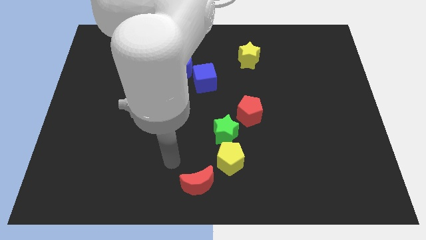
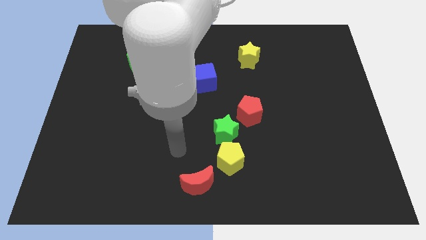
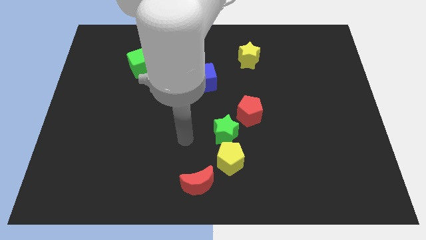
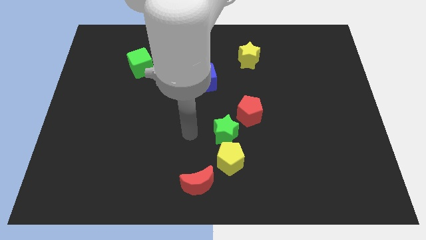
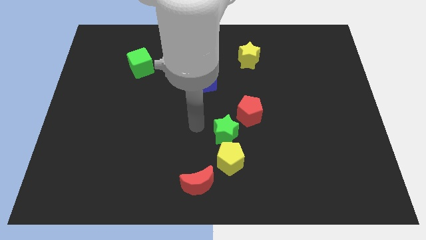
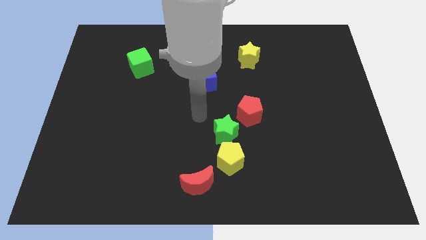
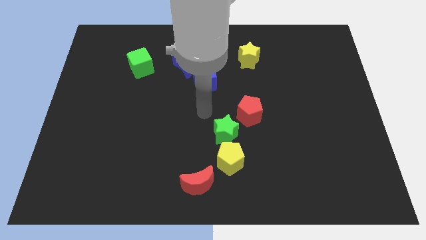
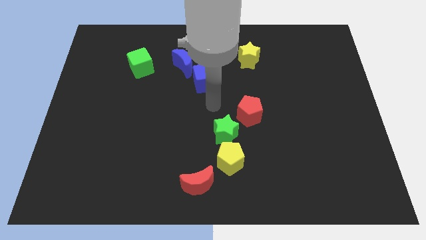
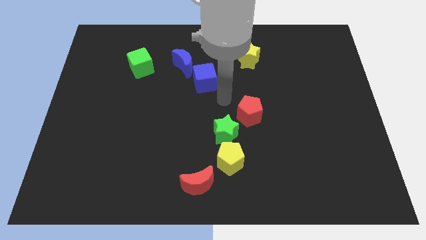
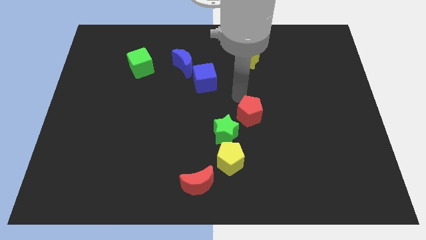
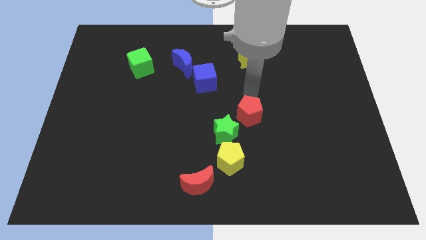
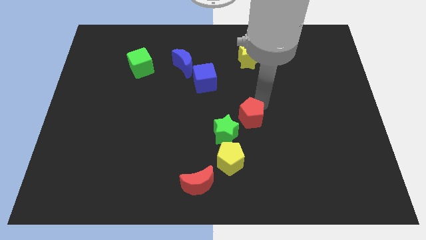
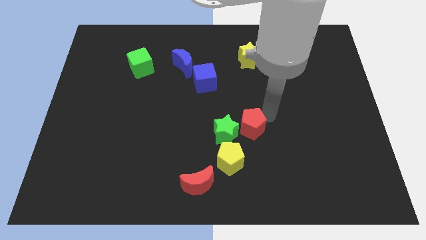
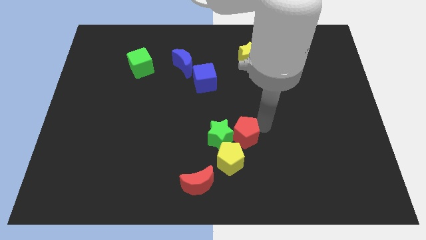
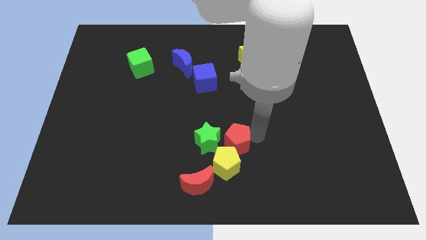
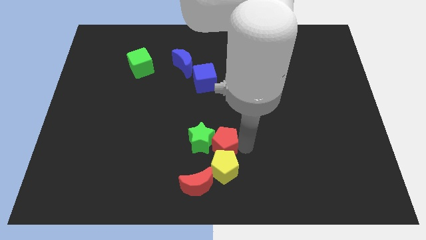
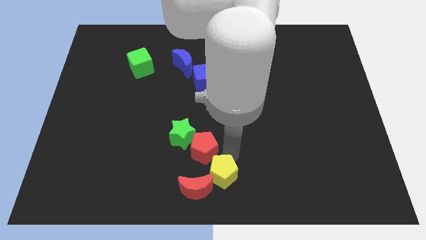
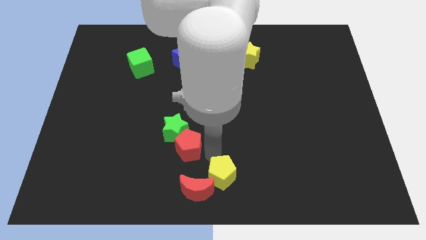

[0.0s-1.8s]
separate the green star from the yellow pentagon and red pentagon

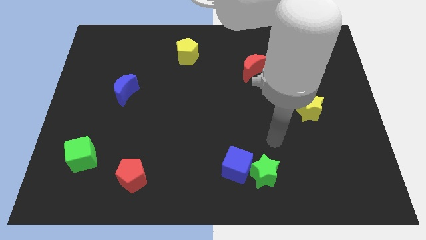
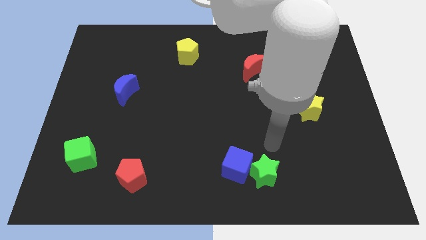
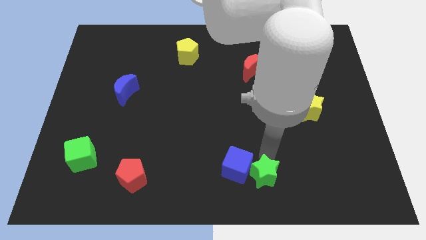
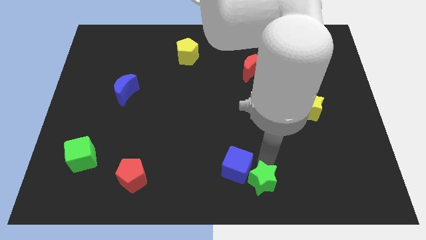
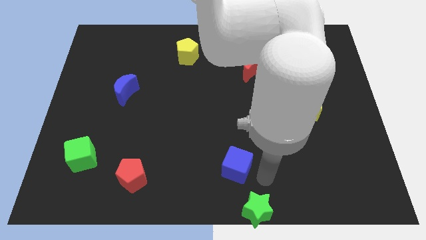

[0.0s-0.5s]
move the blue cube away from the green star

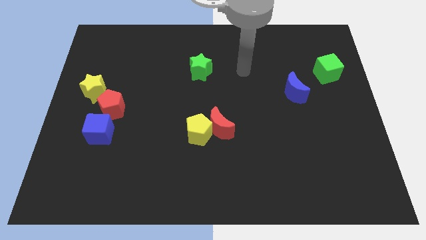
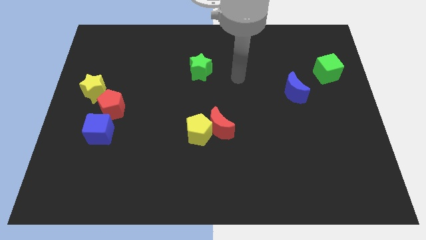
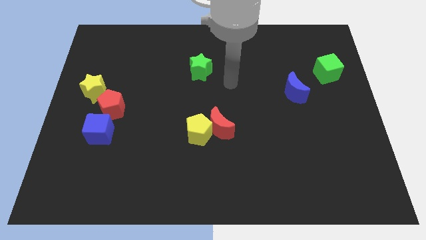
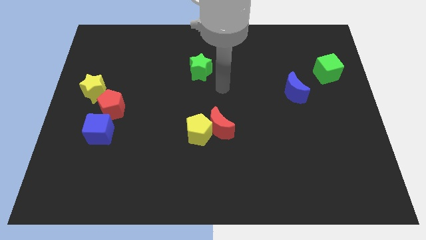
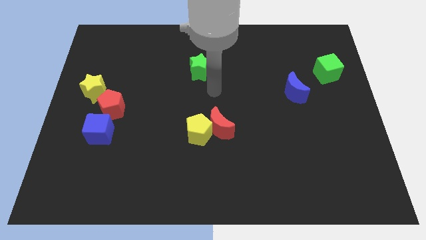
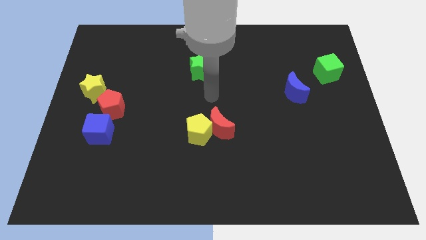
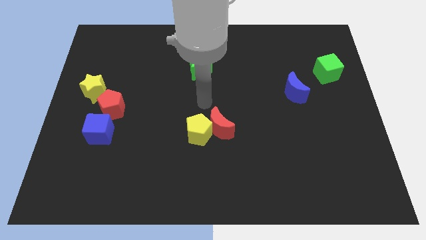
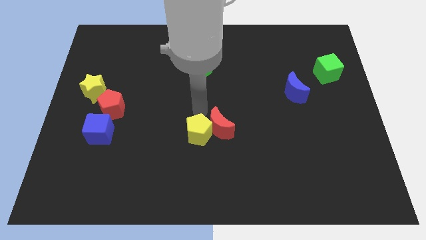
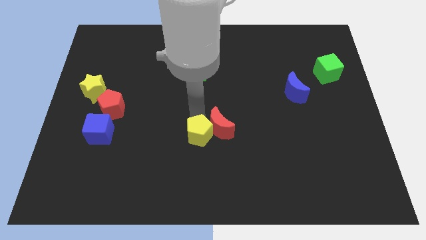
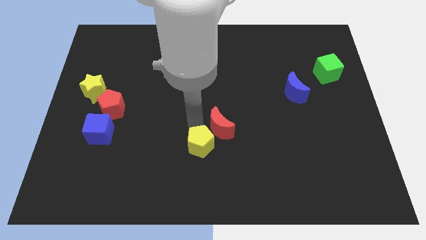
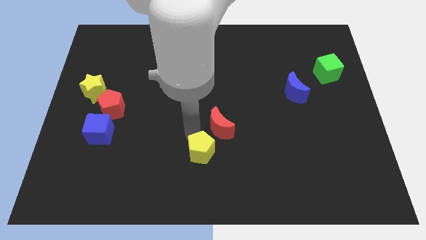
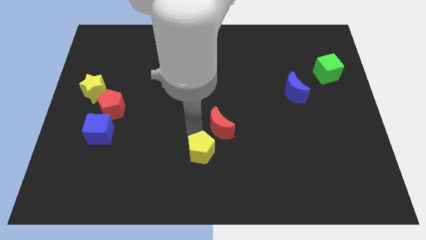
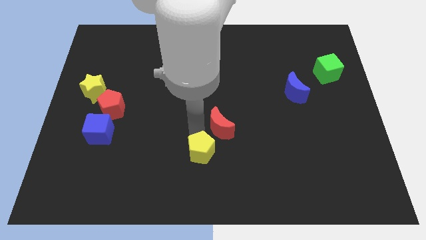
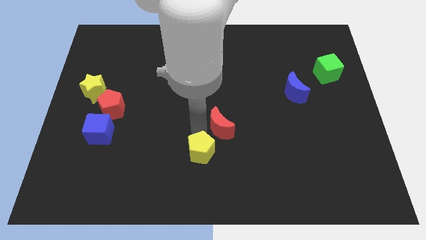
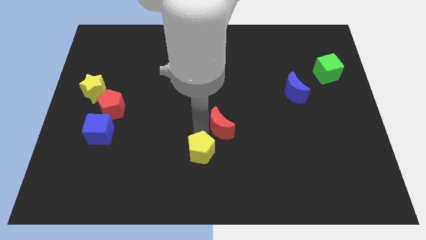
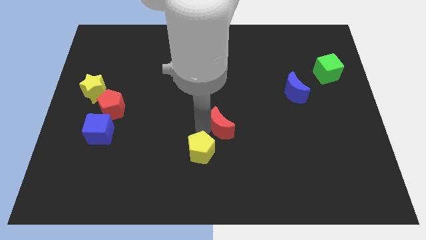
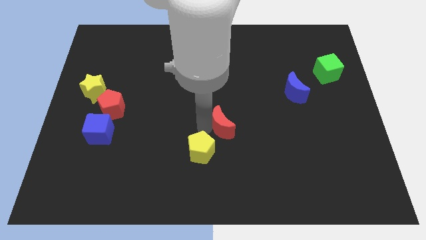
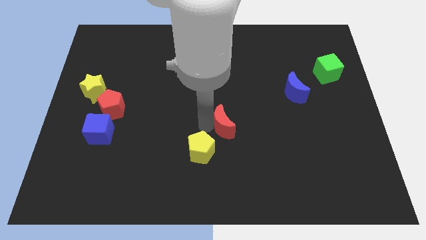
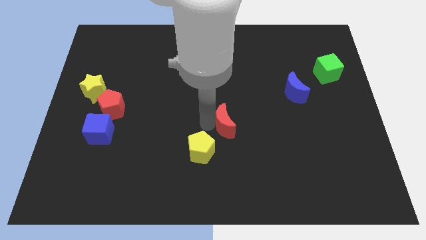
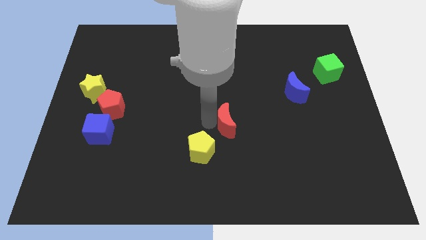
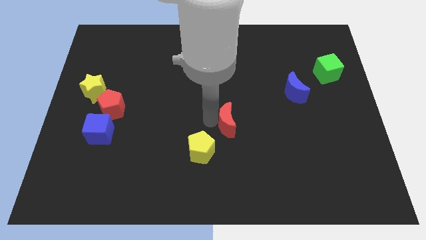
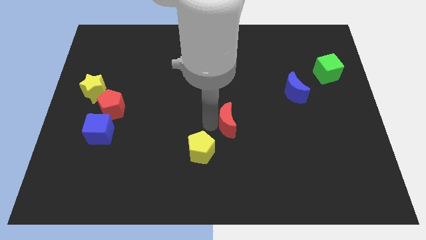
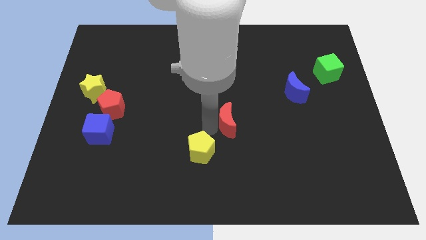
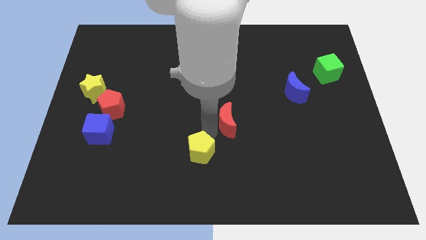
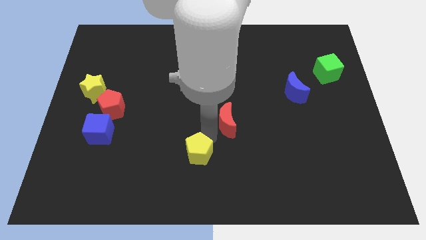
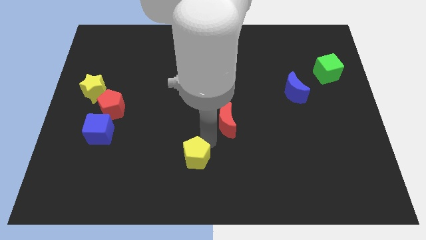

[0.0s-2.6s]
move the red moon away from the yellow pentagon

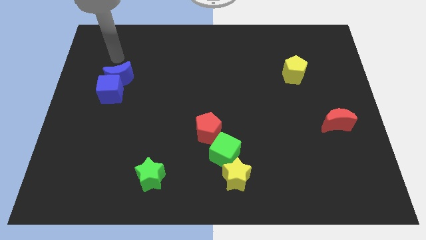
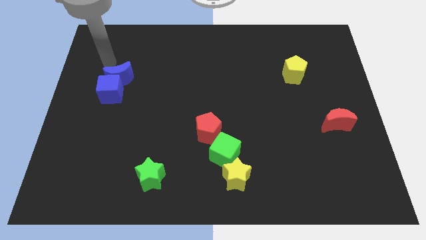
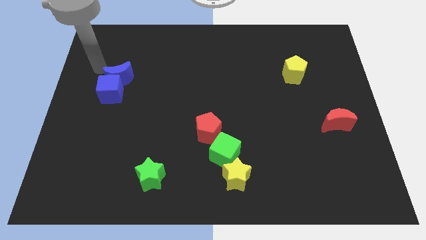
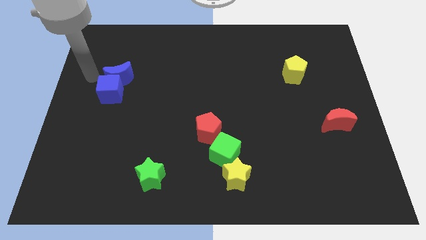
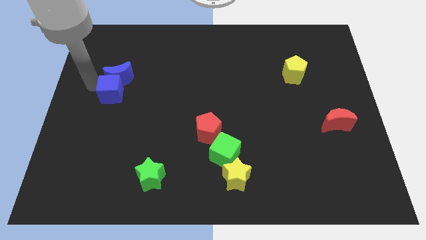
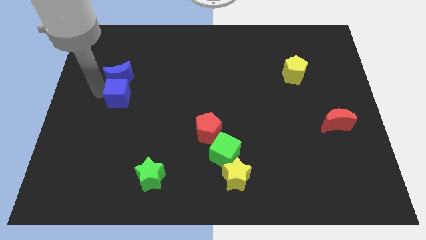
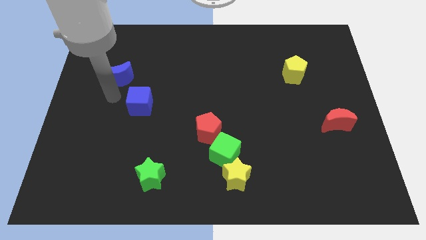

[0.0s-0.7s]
separate the blue moon from the blue cube

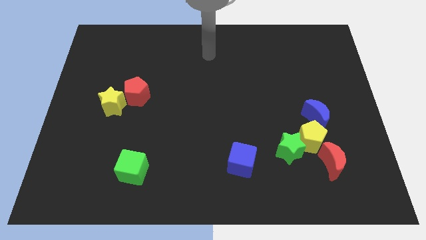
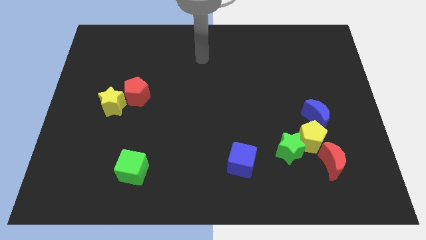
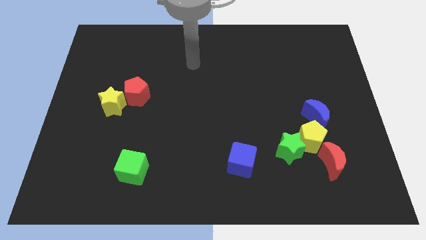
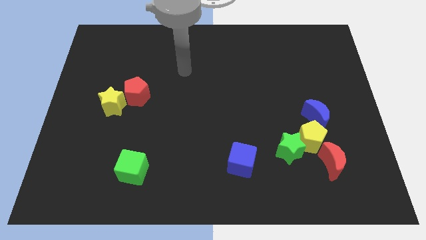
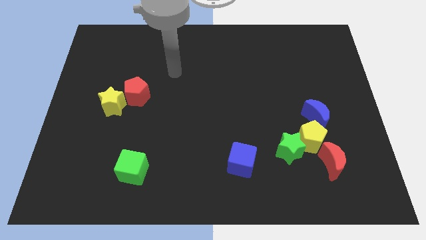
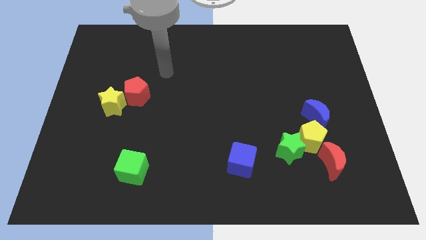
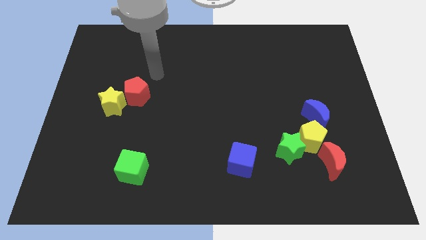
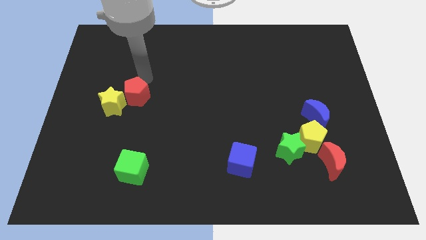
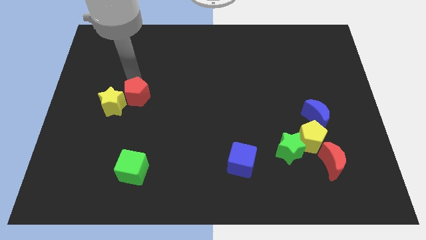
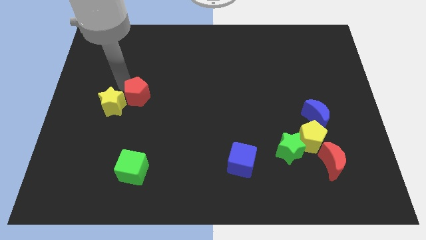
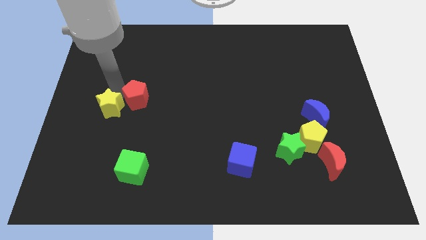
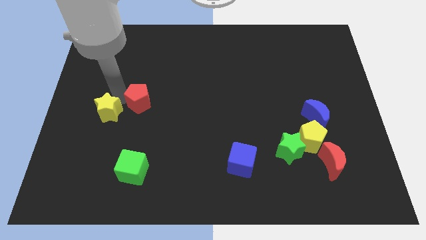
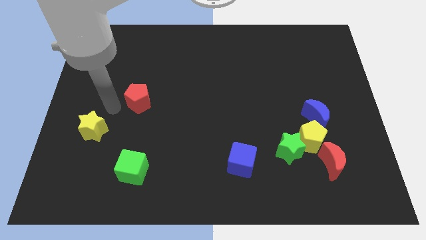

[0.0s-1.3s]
separate the red pentagon from the yellow star

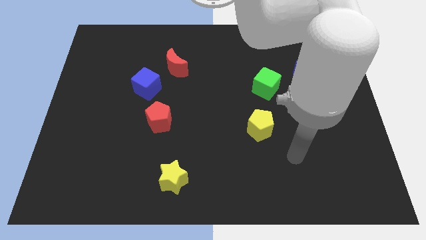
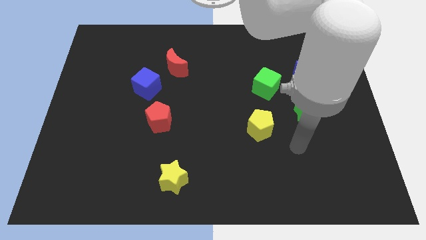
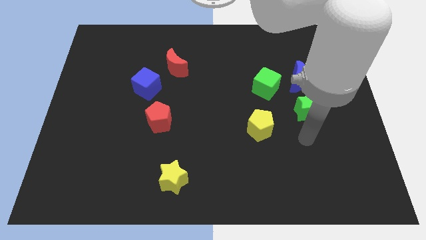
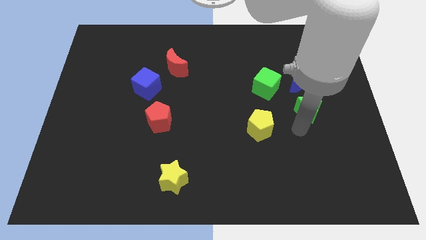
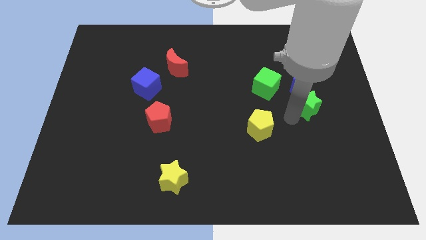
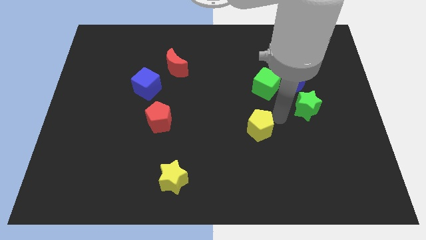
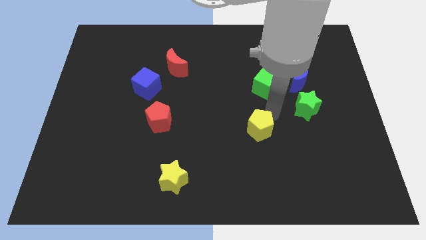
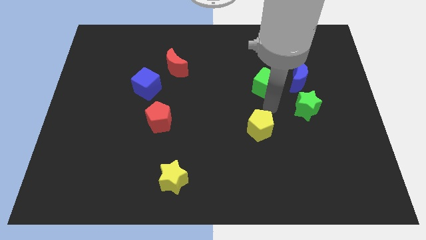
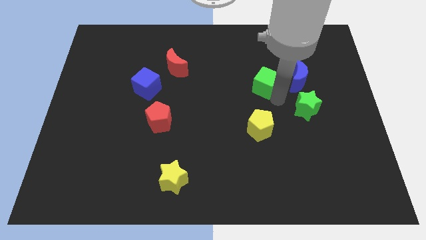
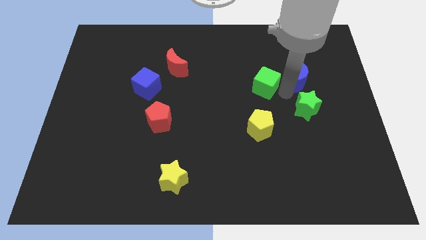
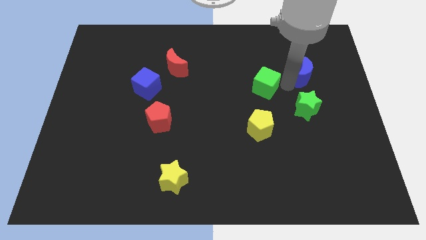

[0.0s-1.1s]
separate the green cube from the blue moon

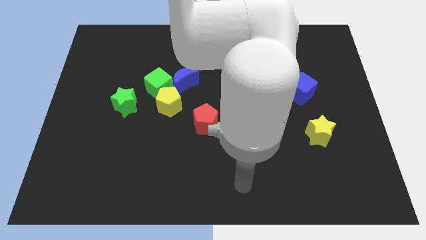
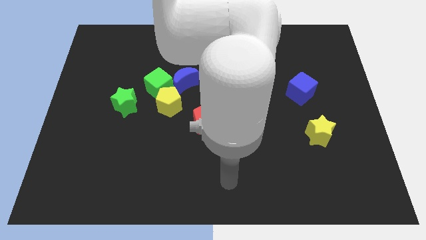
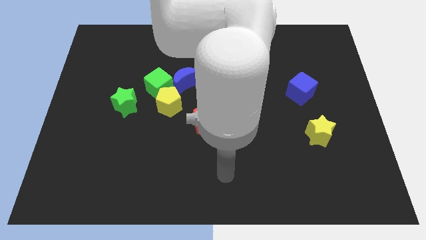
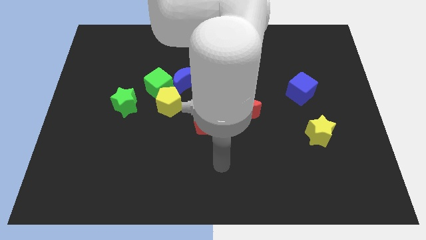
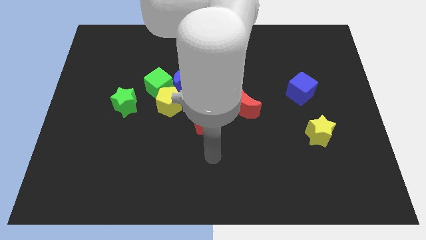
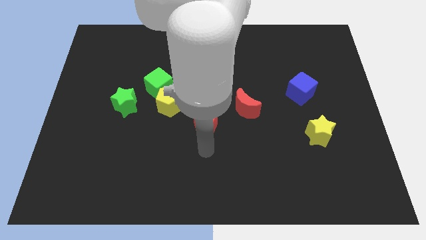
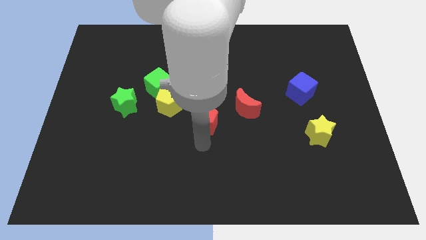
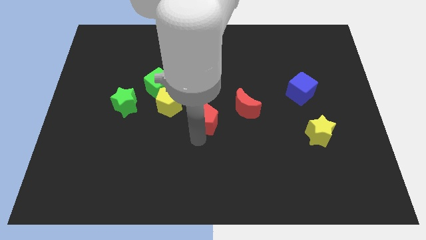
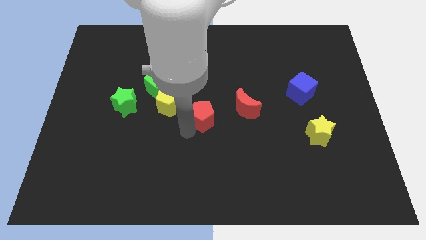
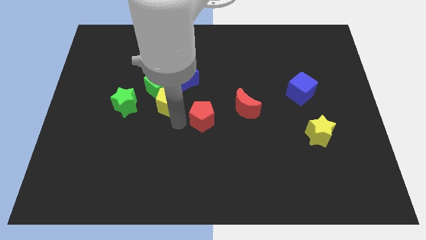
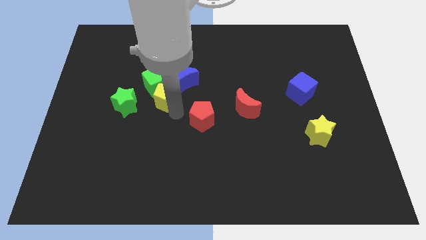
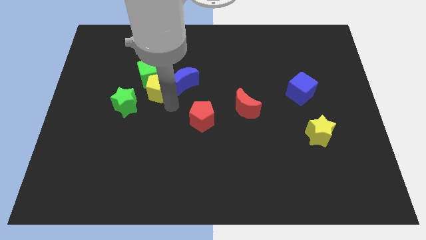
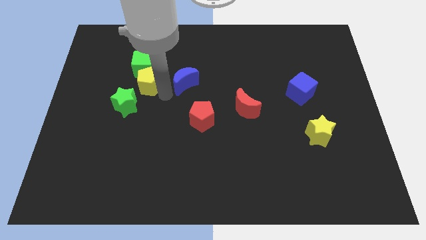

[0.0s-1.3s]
pull the blue moon apart from the green cube and yellow pentagon
